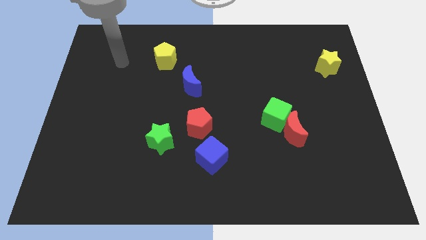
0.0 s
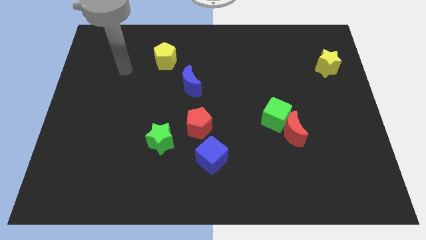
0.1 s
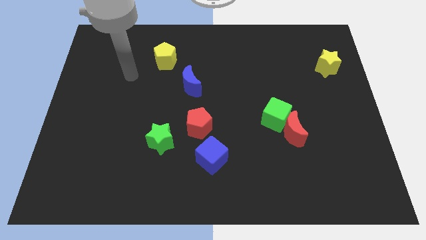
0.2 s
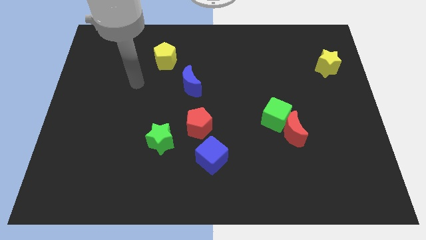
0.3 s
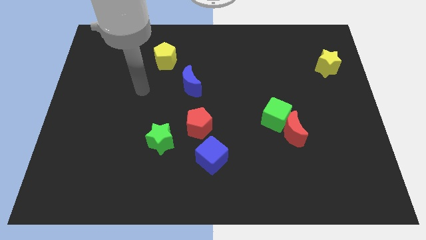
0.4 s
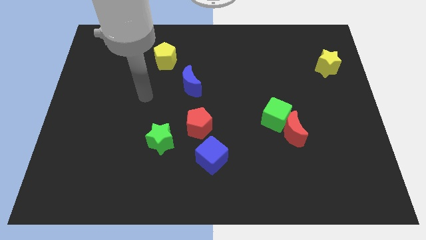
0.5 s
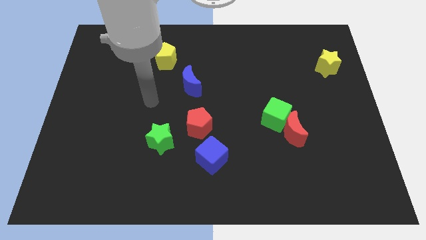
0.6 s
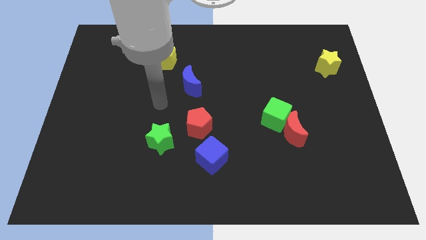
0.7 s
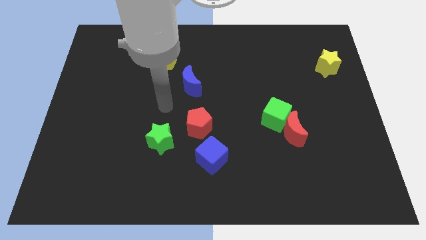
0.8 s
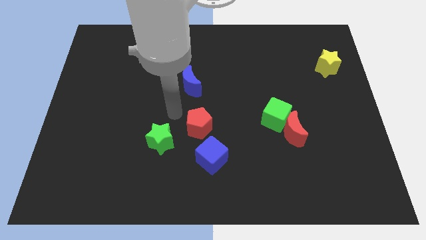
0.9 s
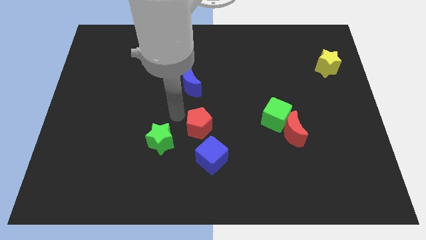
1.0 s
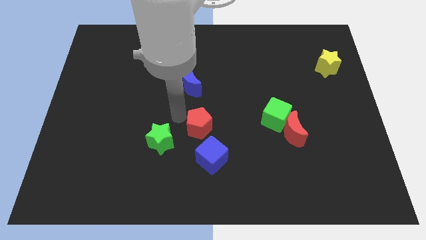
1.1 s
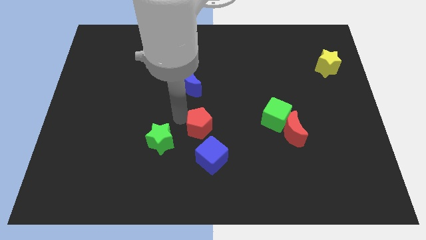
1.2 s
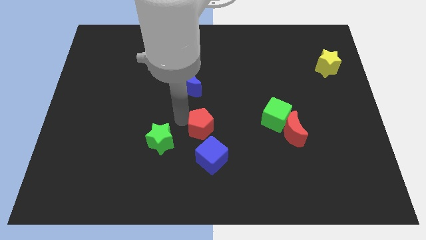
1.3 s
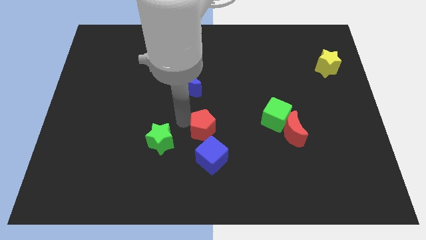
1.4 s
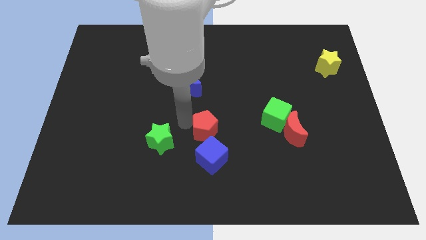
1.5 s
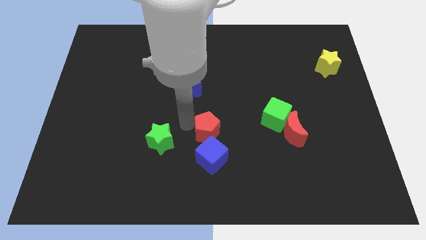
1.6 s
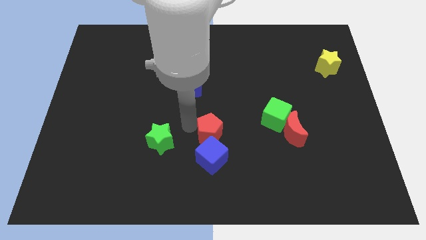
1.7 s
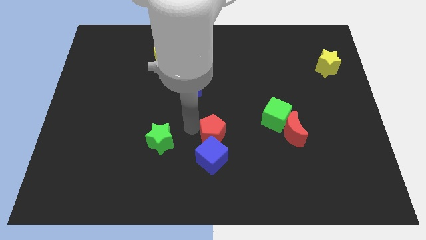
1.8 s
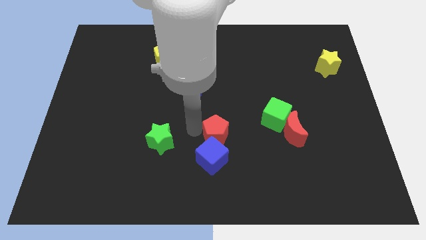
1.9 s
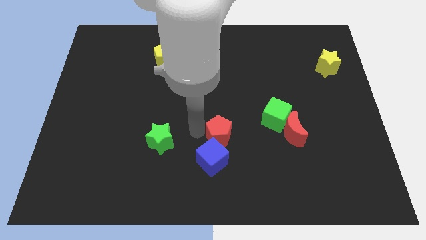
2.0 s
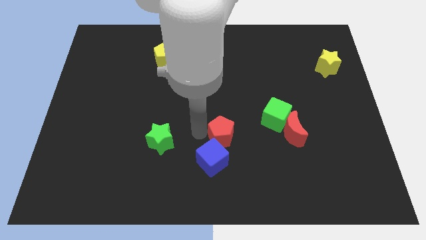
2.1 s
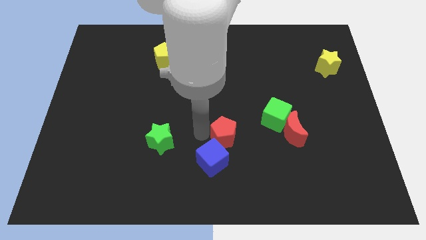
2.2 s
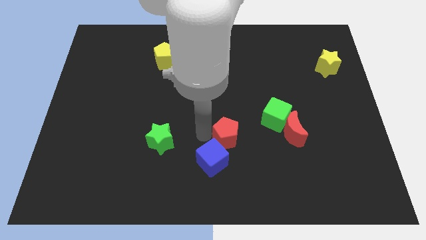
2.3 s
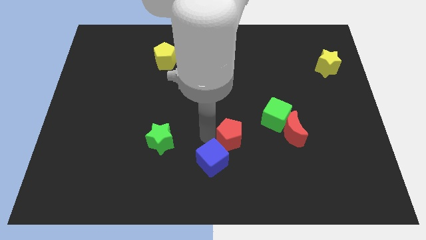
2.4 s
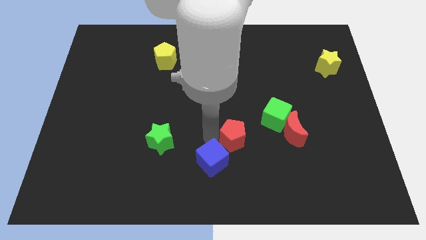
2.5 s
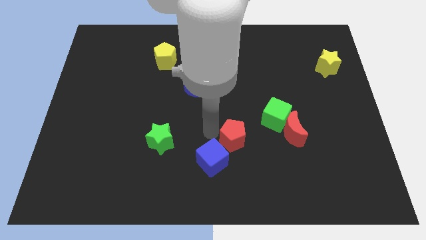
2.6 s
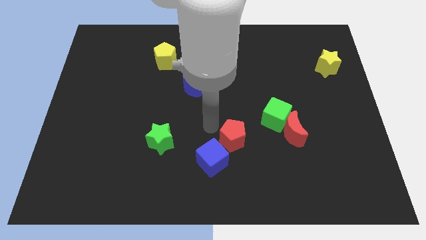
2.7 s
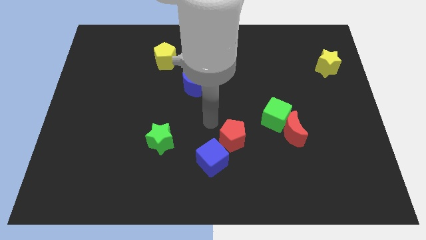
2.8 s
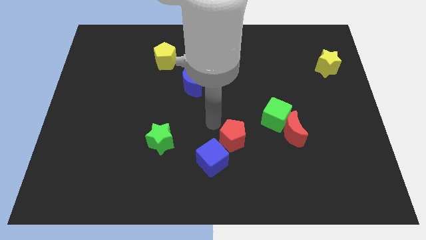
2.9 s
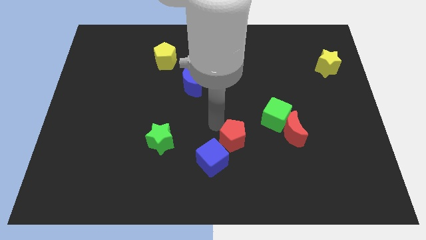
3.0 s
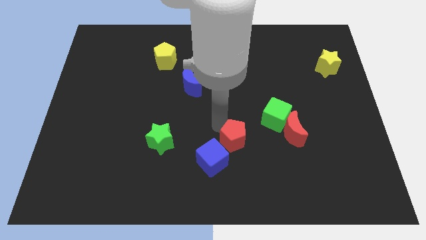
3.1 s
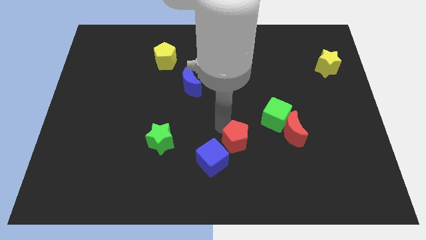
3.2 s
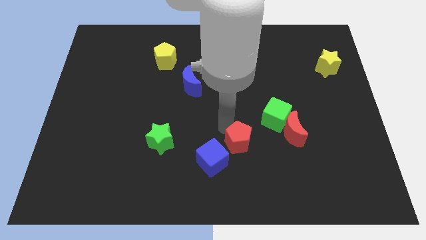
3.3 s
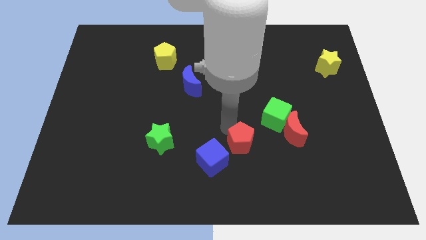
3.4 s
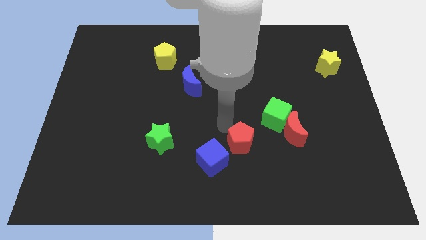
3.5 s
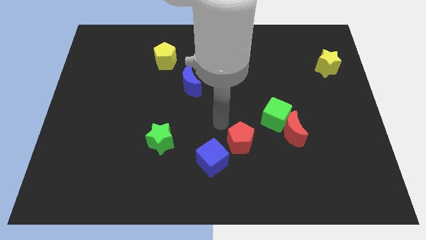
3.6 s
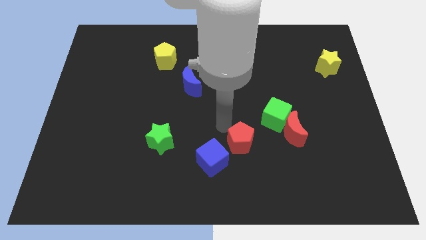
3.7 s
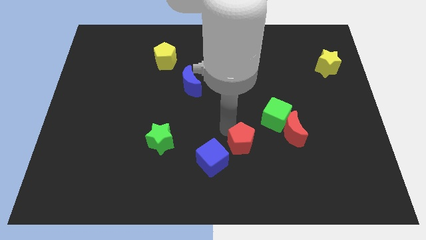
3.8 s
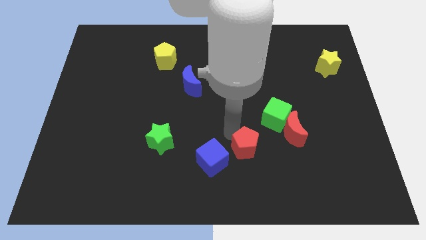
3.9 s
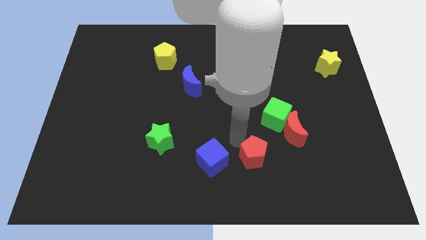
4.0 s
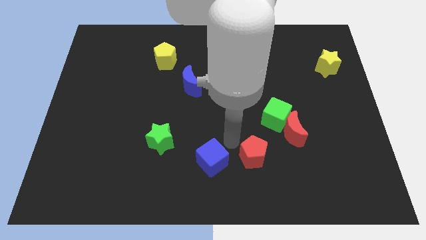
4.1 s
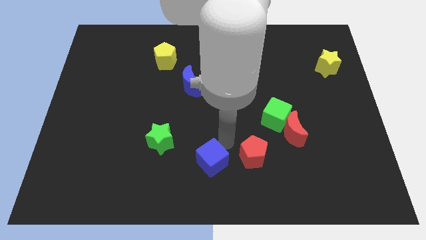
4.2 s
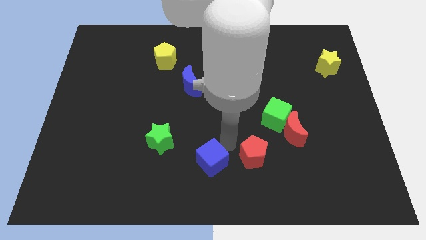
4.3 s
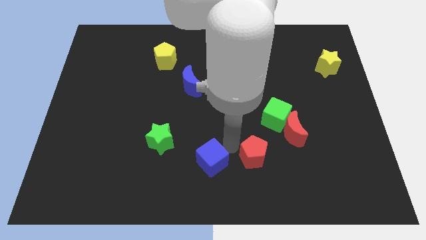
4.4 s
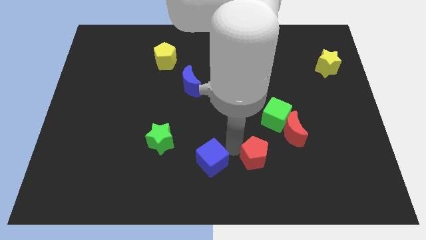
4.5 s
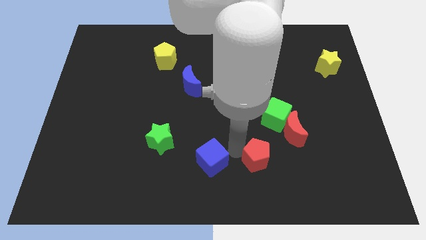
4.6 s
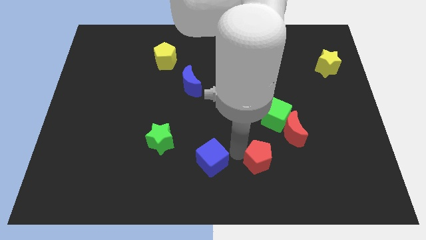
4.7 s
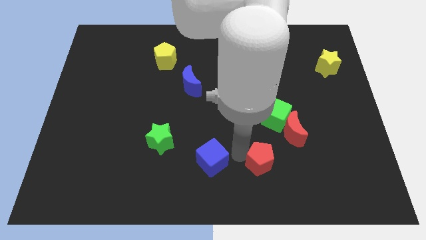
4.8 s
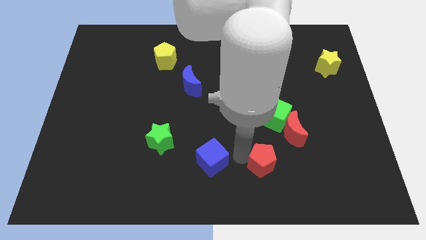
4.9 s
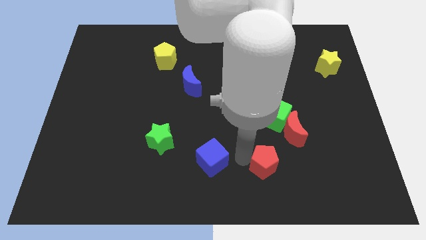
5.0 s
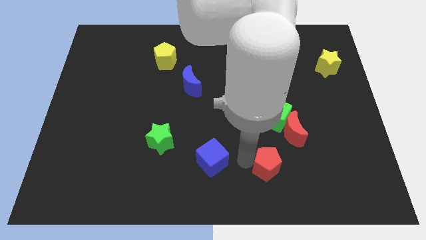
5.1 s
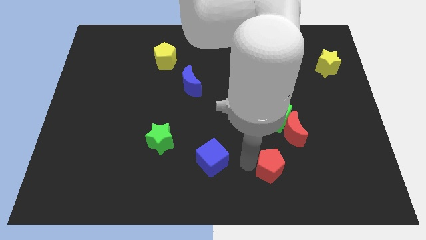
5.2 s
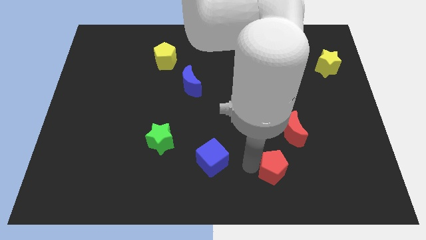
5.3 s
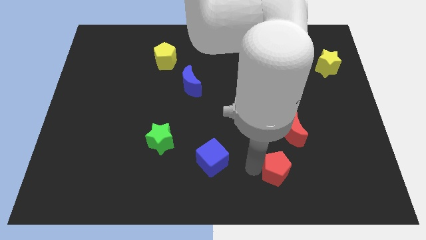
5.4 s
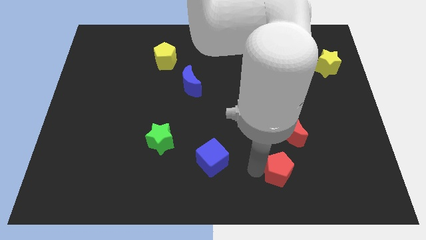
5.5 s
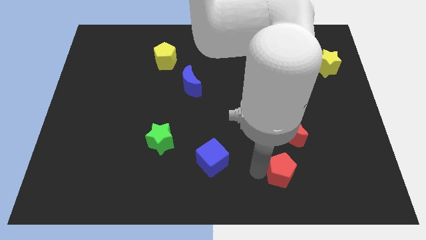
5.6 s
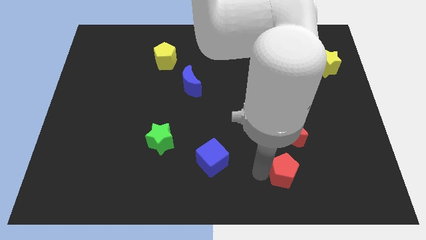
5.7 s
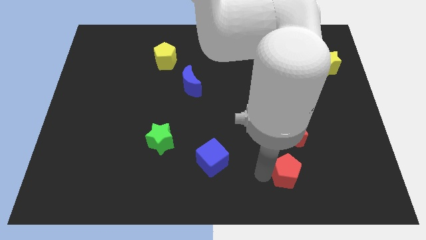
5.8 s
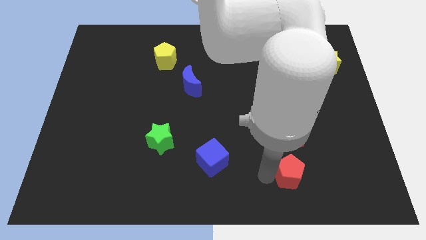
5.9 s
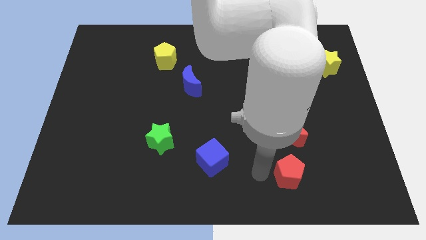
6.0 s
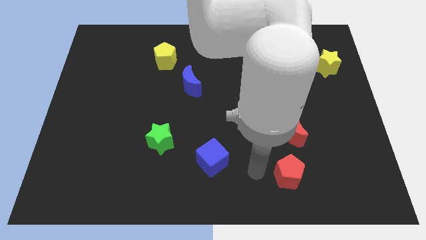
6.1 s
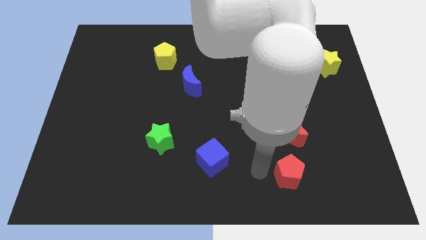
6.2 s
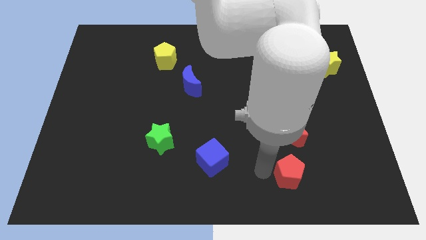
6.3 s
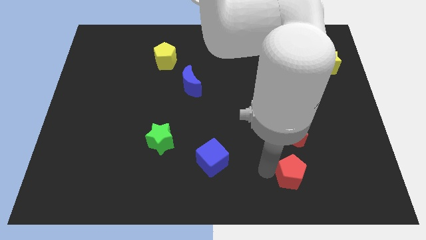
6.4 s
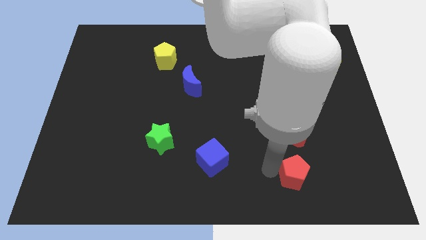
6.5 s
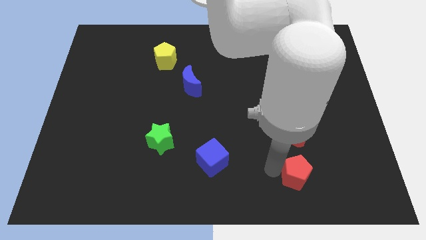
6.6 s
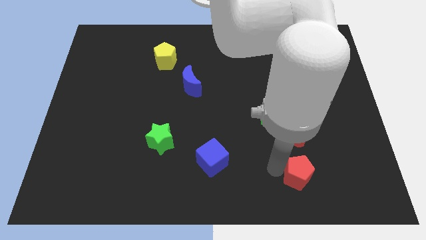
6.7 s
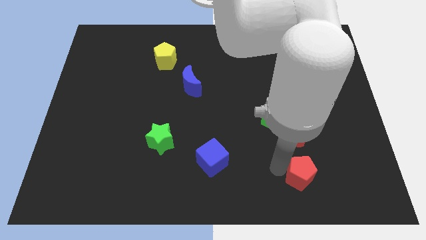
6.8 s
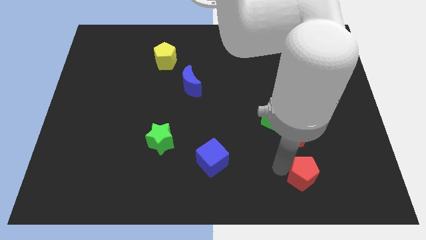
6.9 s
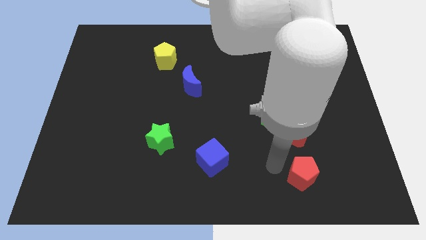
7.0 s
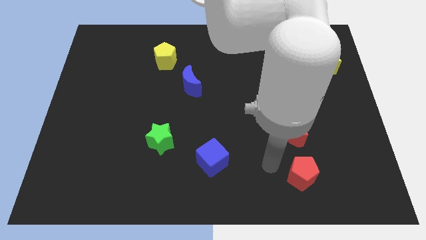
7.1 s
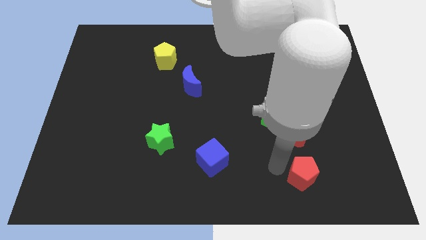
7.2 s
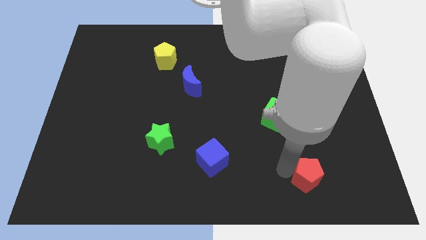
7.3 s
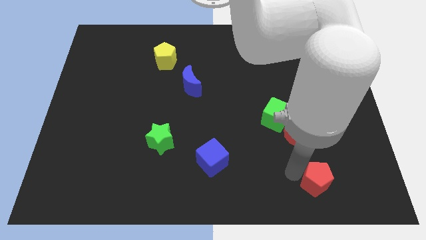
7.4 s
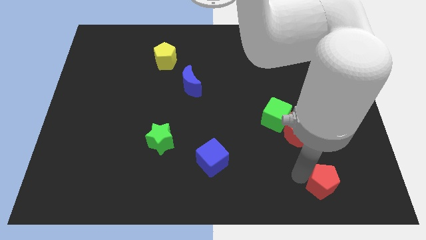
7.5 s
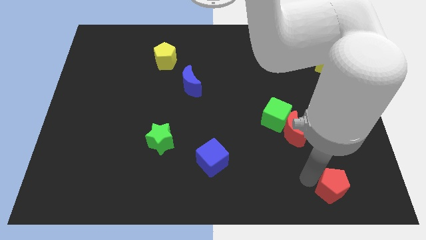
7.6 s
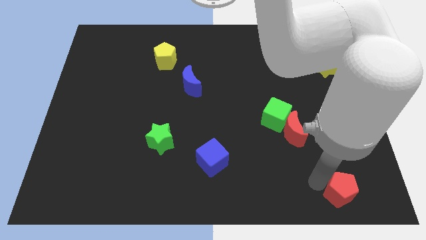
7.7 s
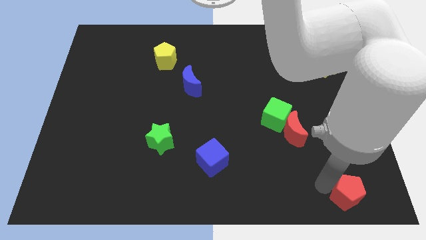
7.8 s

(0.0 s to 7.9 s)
push the red pentagon to the bottom right of the board
